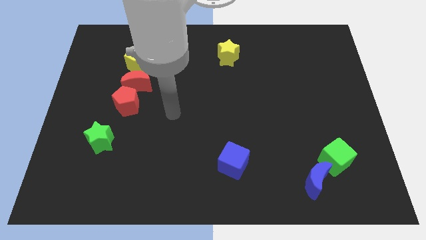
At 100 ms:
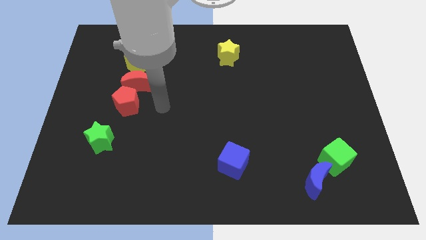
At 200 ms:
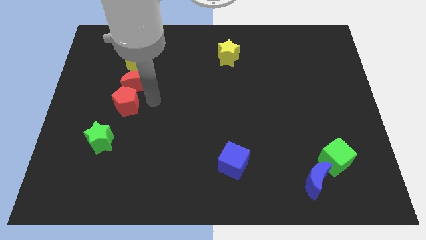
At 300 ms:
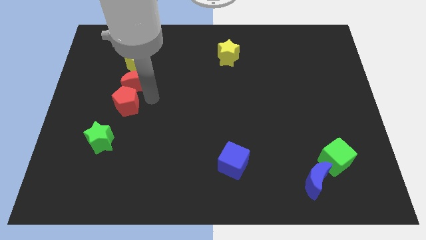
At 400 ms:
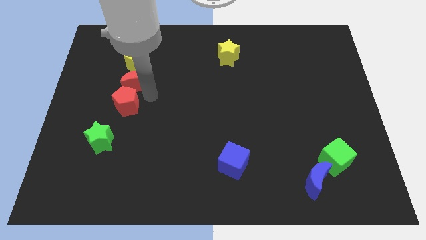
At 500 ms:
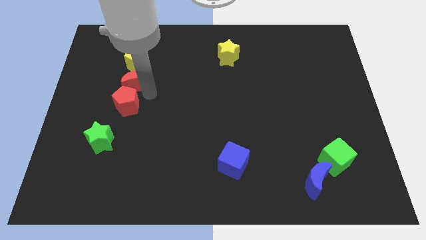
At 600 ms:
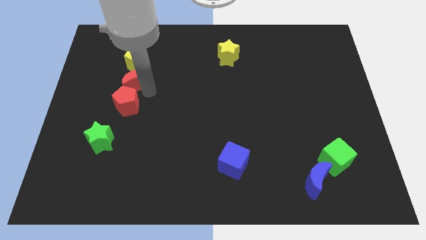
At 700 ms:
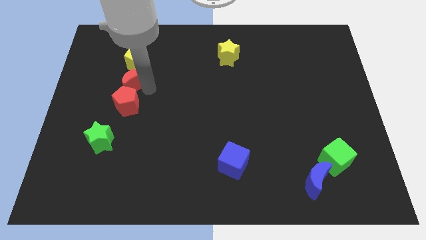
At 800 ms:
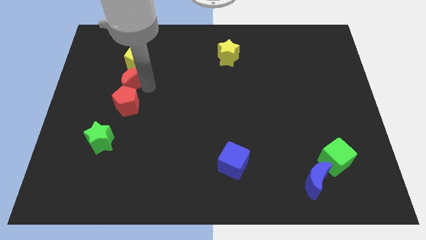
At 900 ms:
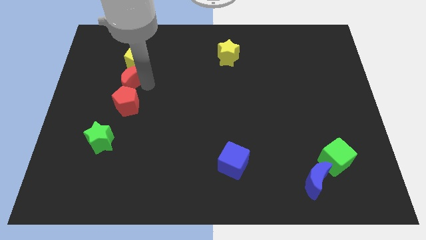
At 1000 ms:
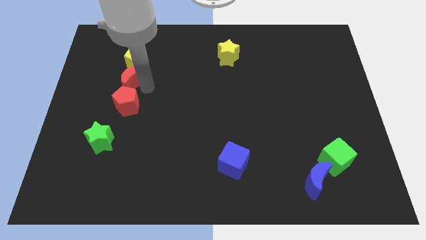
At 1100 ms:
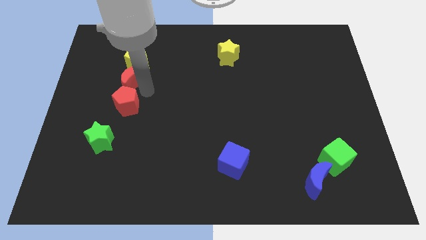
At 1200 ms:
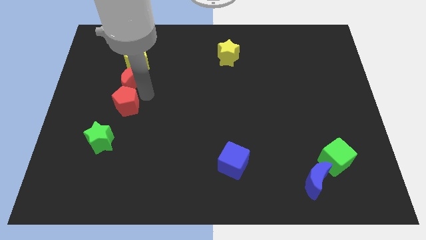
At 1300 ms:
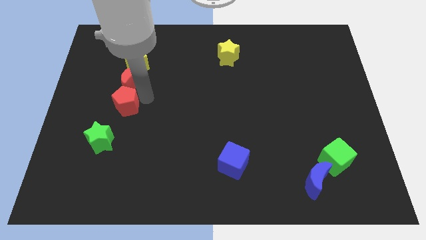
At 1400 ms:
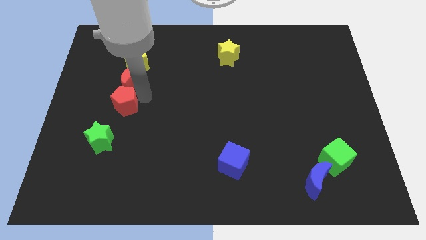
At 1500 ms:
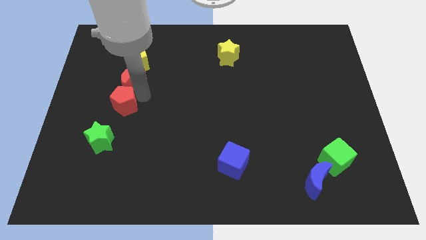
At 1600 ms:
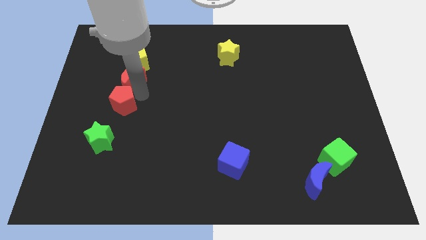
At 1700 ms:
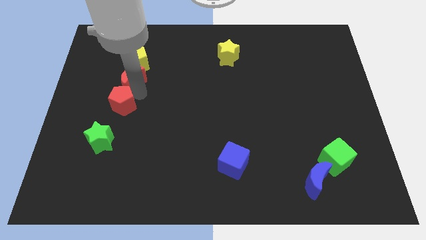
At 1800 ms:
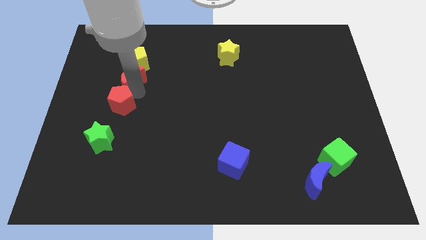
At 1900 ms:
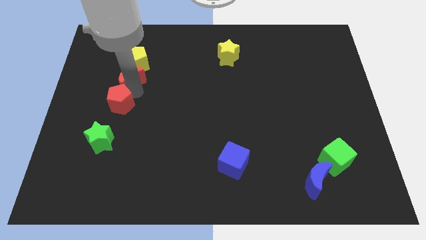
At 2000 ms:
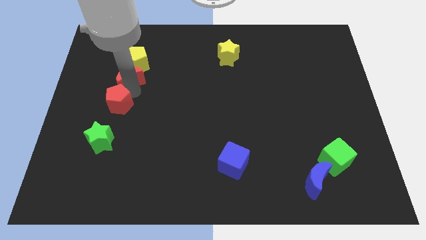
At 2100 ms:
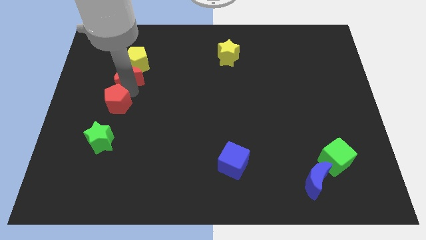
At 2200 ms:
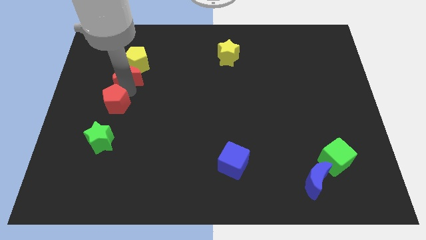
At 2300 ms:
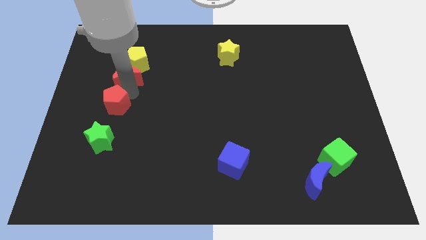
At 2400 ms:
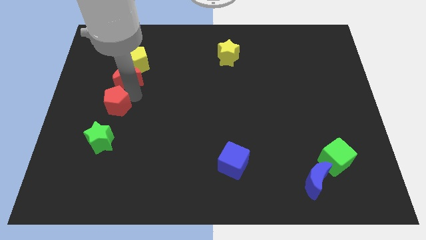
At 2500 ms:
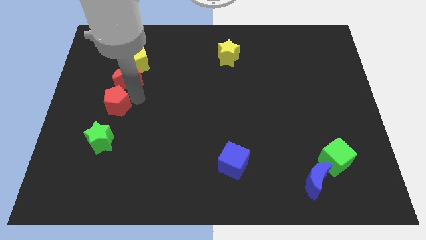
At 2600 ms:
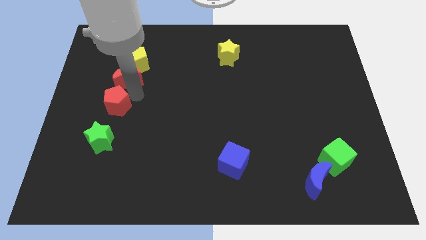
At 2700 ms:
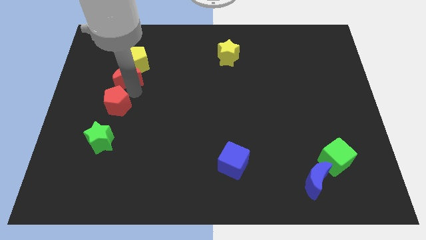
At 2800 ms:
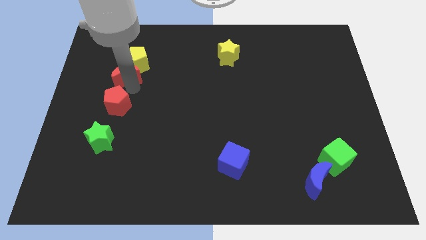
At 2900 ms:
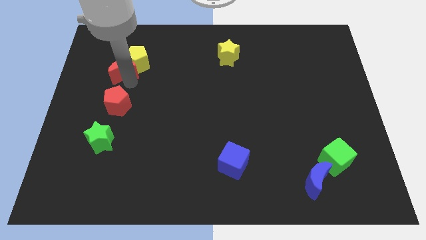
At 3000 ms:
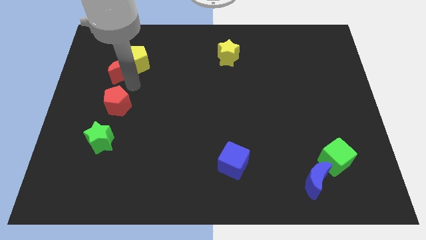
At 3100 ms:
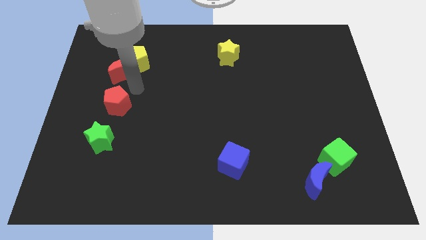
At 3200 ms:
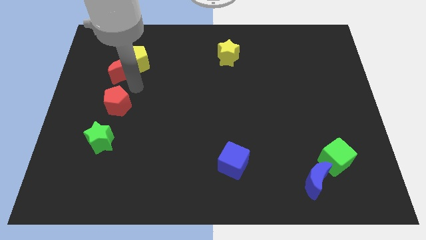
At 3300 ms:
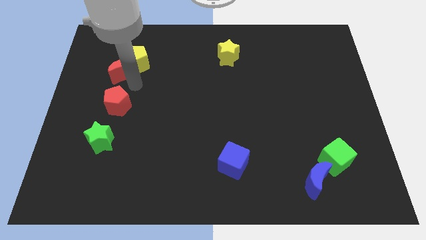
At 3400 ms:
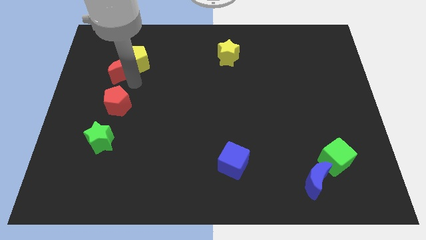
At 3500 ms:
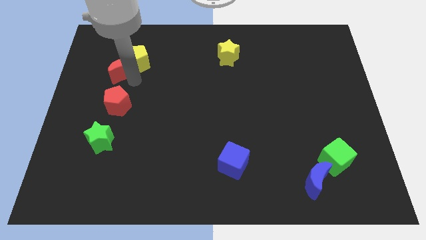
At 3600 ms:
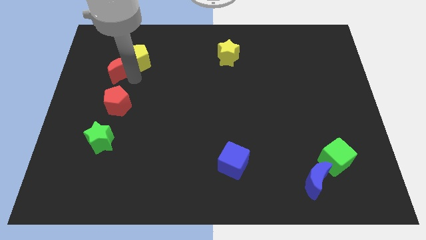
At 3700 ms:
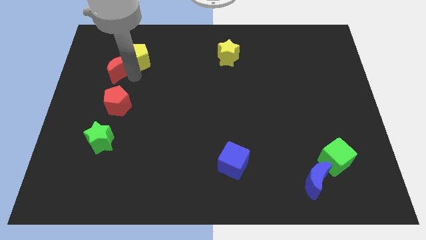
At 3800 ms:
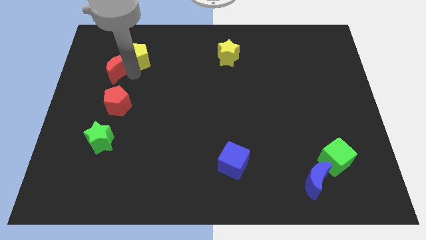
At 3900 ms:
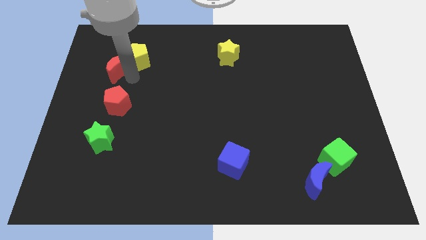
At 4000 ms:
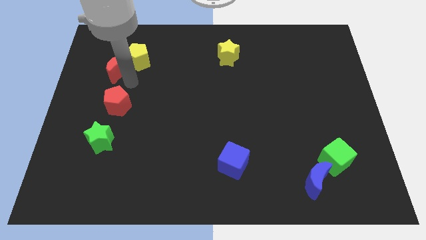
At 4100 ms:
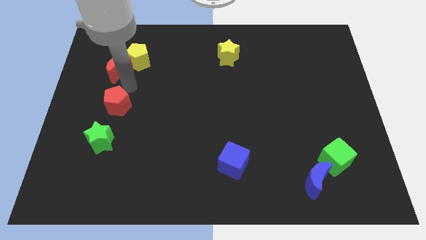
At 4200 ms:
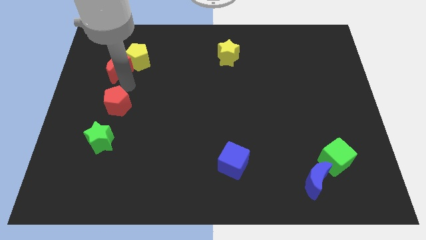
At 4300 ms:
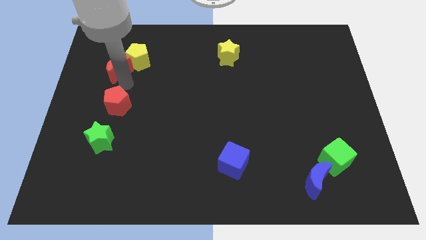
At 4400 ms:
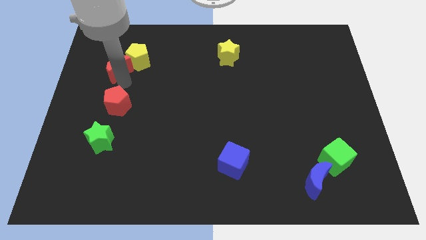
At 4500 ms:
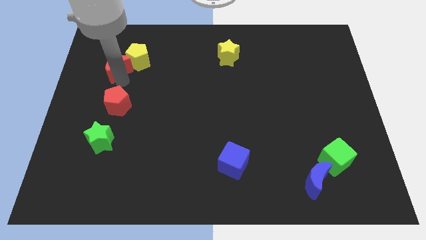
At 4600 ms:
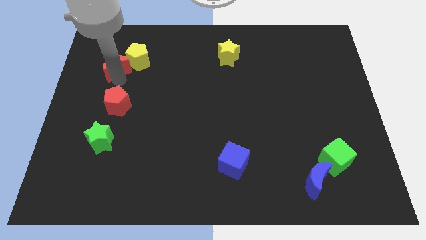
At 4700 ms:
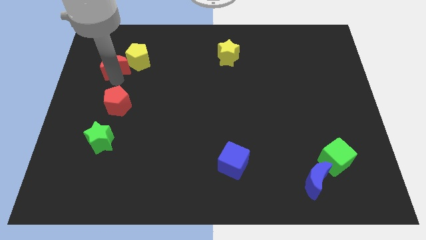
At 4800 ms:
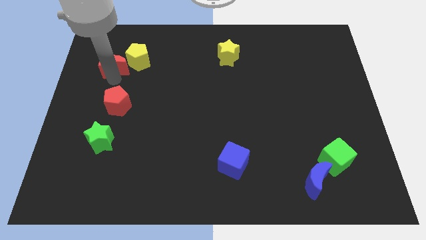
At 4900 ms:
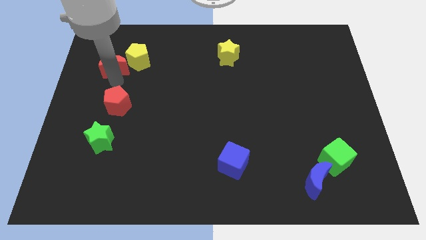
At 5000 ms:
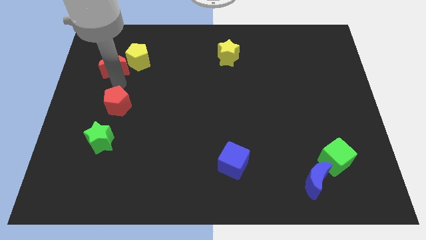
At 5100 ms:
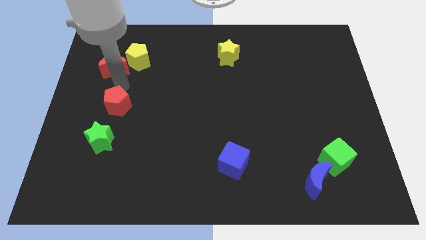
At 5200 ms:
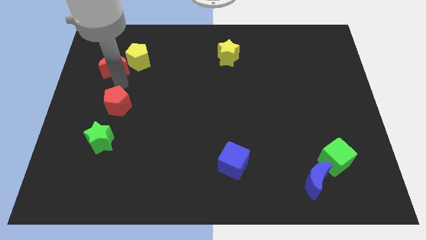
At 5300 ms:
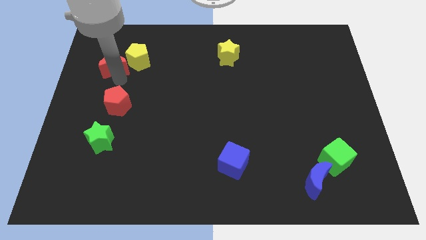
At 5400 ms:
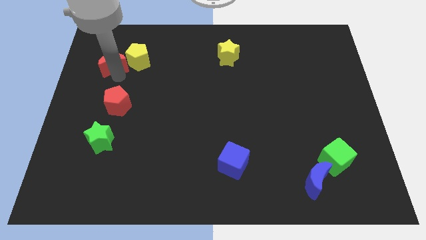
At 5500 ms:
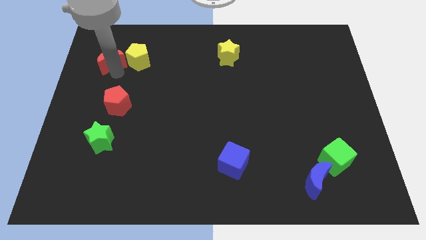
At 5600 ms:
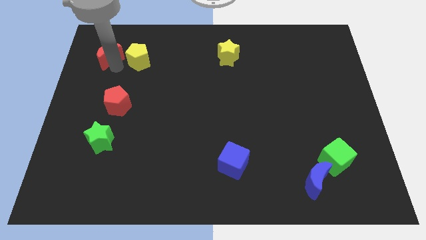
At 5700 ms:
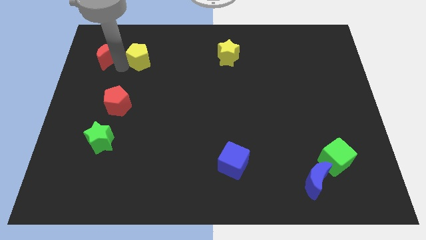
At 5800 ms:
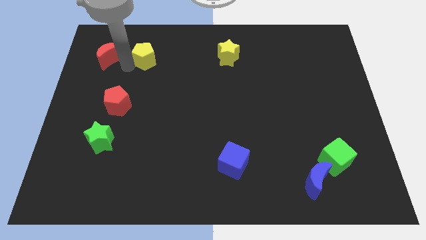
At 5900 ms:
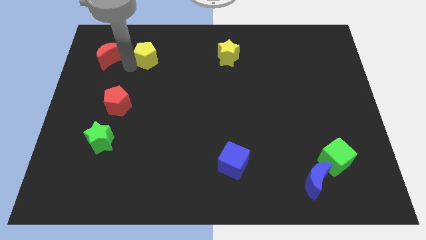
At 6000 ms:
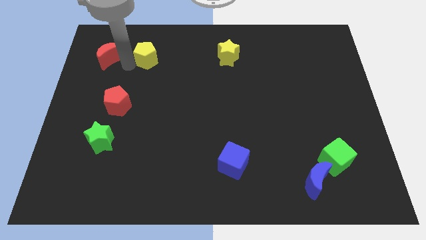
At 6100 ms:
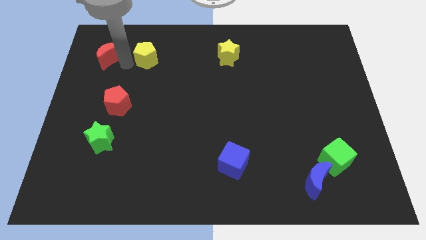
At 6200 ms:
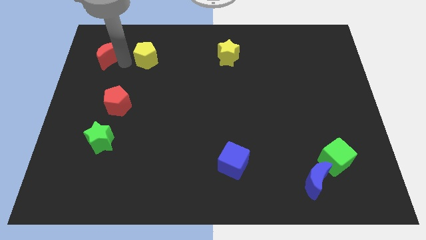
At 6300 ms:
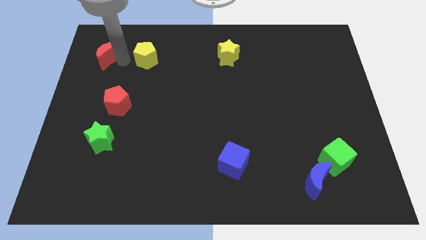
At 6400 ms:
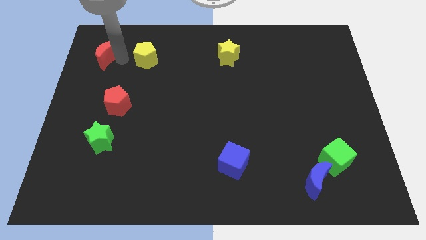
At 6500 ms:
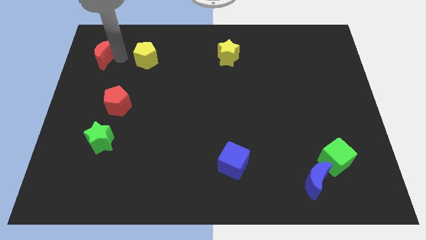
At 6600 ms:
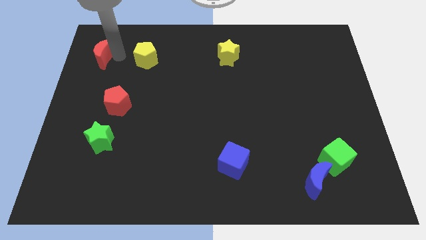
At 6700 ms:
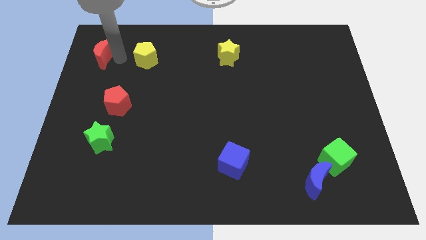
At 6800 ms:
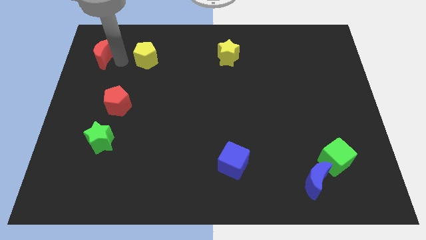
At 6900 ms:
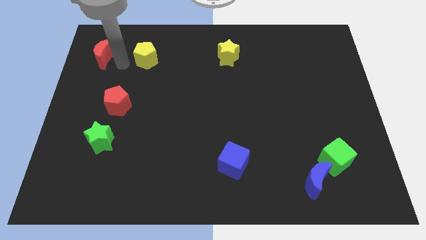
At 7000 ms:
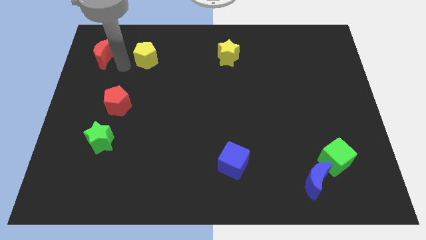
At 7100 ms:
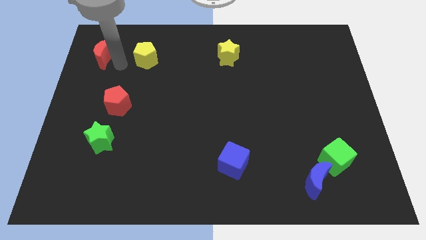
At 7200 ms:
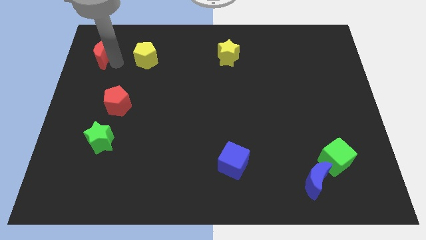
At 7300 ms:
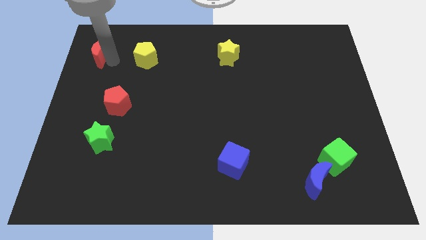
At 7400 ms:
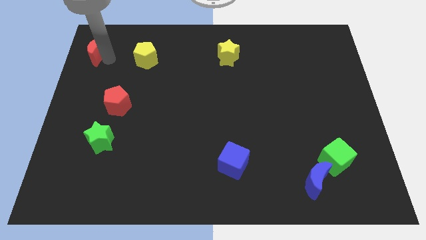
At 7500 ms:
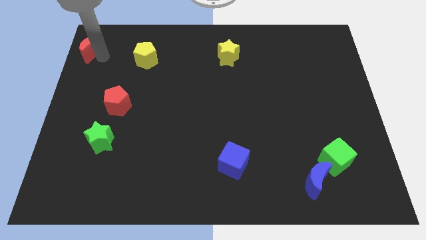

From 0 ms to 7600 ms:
push the red moon to the top left
